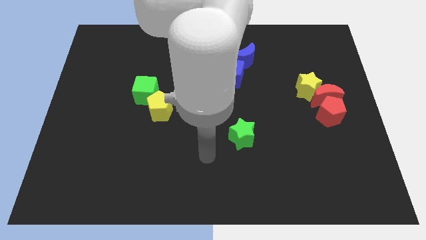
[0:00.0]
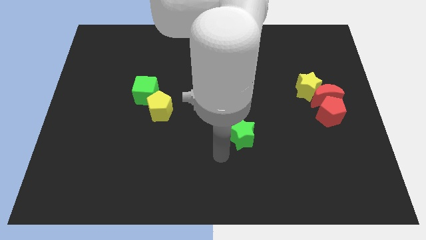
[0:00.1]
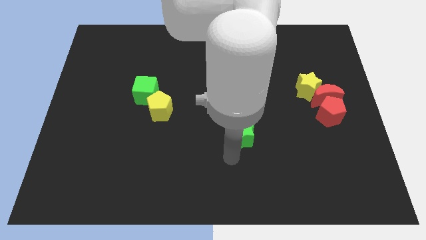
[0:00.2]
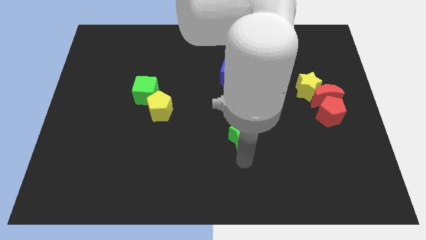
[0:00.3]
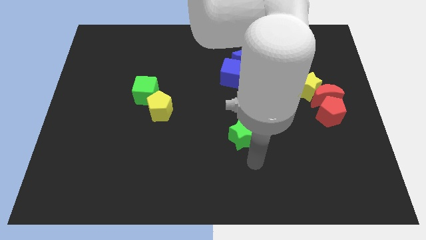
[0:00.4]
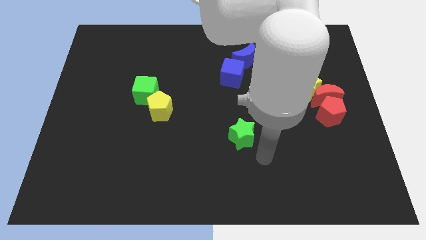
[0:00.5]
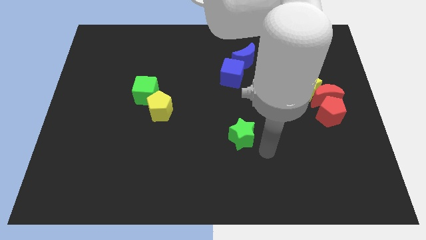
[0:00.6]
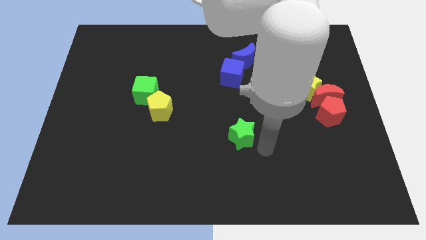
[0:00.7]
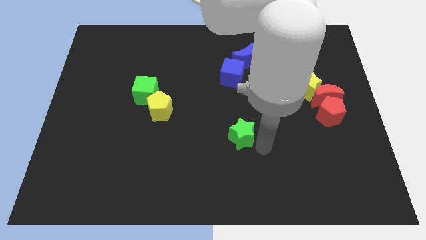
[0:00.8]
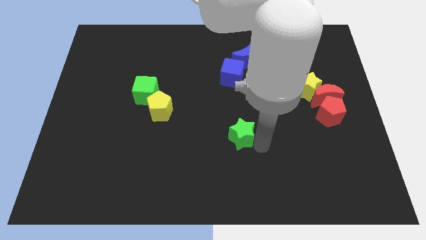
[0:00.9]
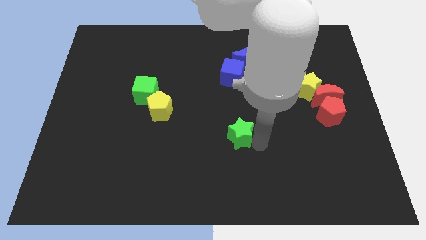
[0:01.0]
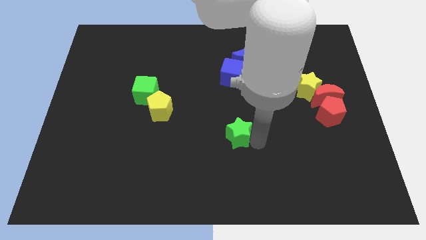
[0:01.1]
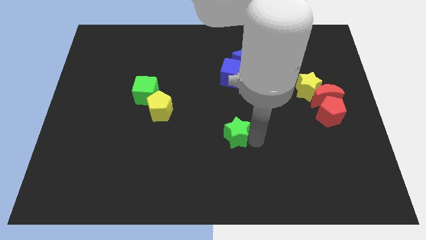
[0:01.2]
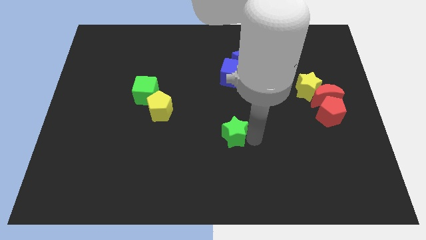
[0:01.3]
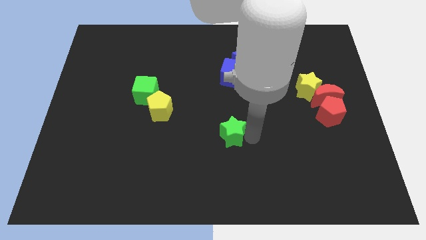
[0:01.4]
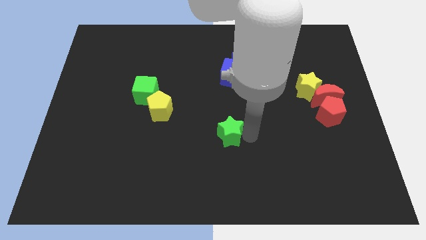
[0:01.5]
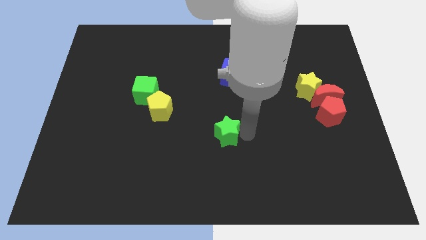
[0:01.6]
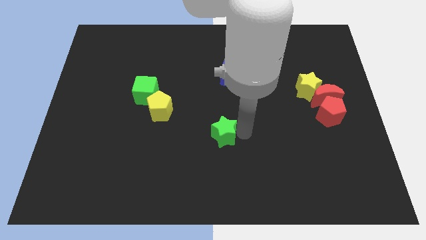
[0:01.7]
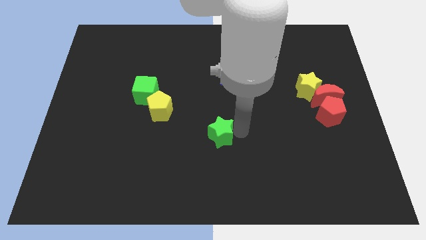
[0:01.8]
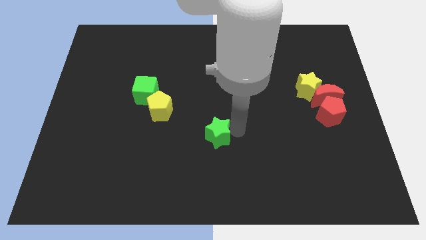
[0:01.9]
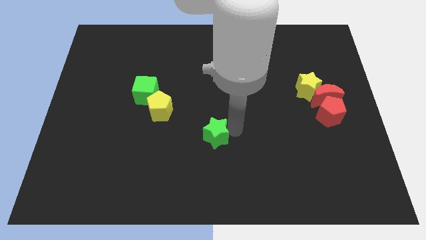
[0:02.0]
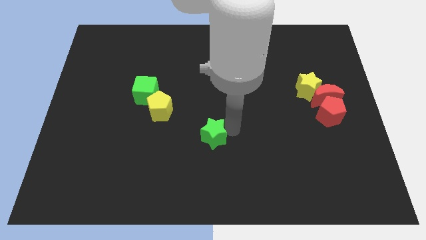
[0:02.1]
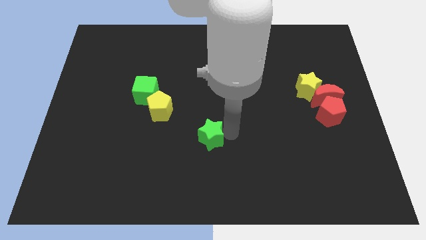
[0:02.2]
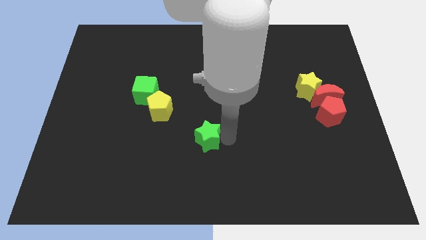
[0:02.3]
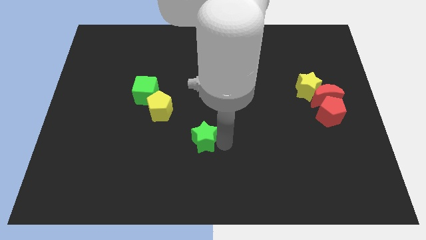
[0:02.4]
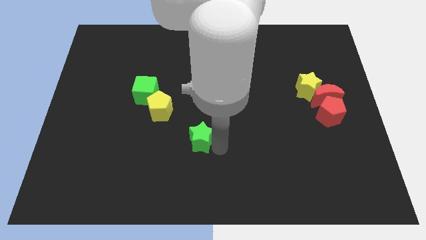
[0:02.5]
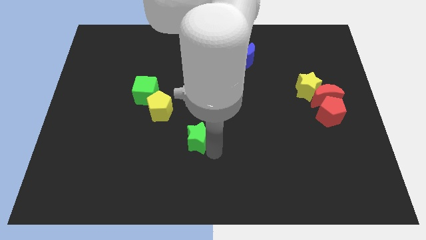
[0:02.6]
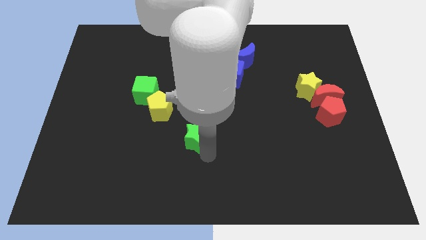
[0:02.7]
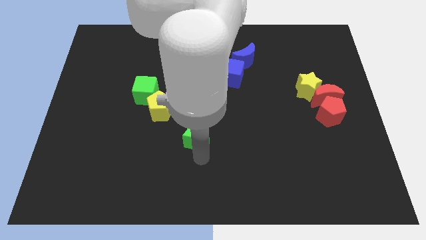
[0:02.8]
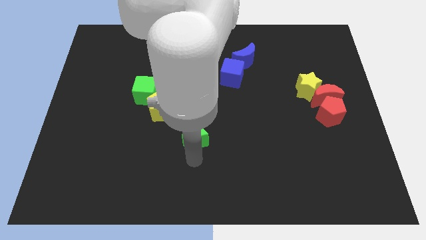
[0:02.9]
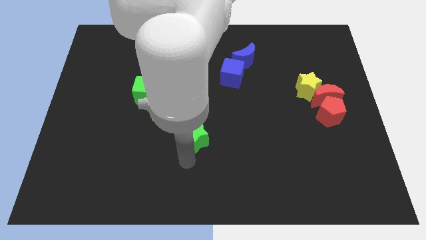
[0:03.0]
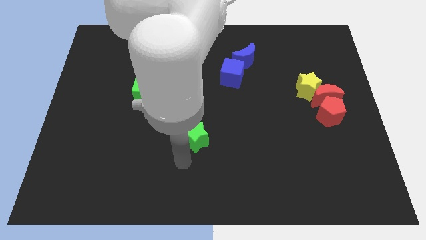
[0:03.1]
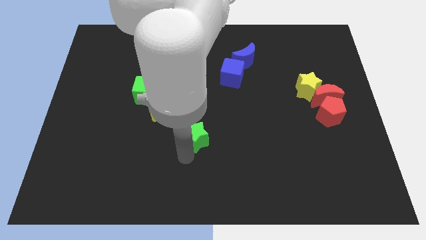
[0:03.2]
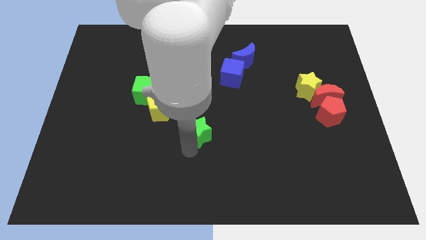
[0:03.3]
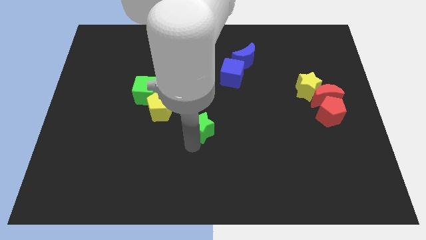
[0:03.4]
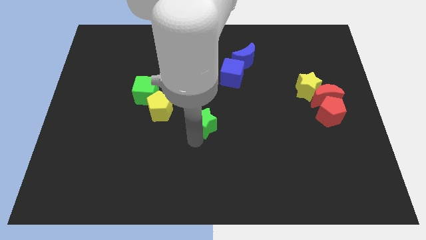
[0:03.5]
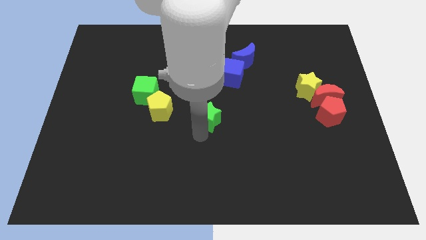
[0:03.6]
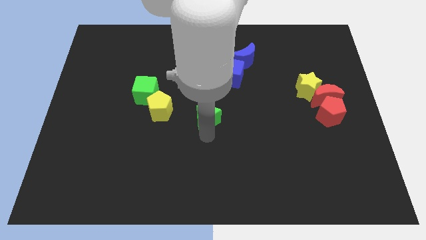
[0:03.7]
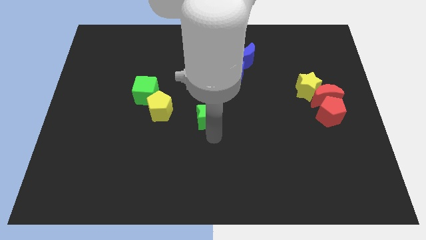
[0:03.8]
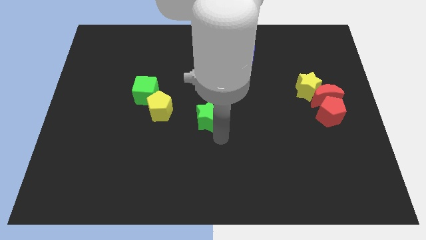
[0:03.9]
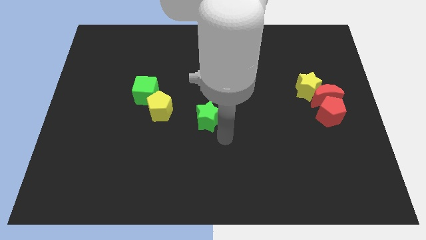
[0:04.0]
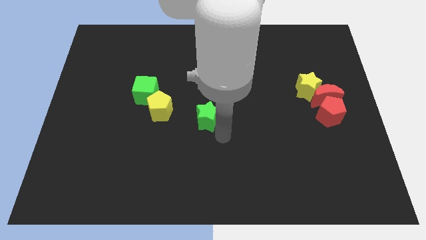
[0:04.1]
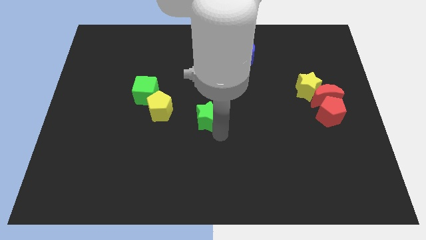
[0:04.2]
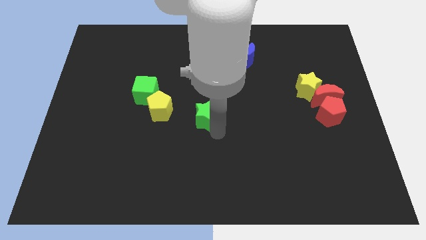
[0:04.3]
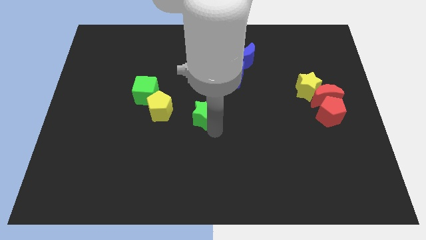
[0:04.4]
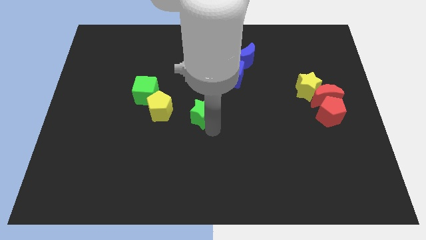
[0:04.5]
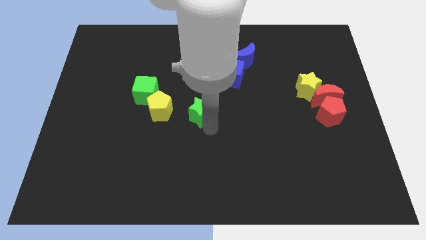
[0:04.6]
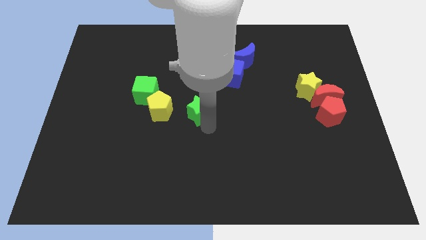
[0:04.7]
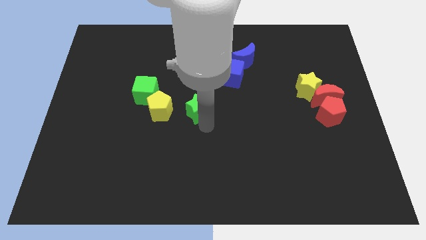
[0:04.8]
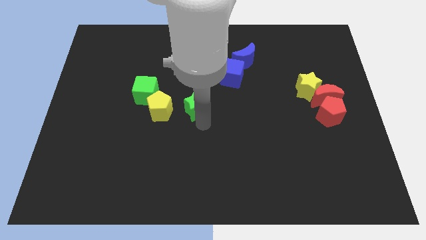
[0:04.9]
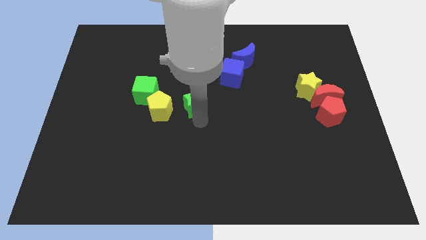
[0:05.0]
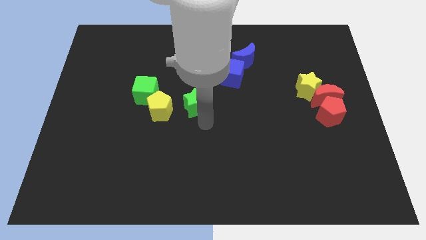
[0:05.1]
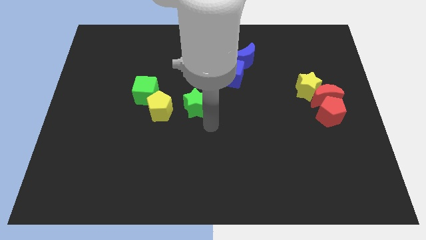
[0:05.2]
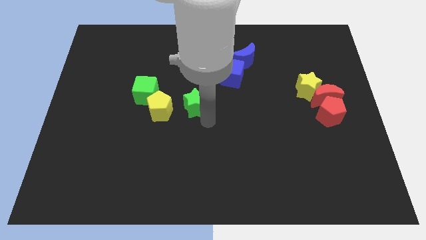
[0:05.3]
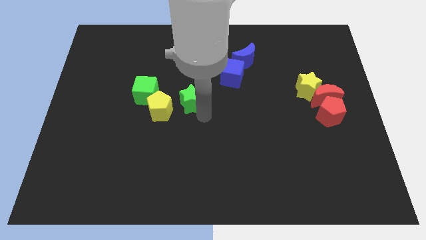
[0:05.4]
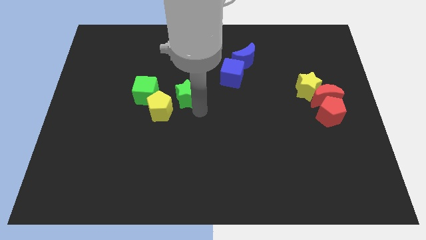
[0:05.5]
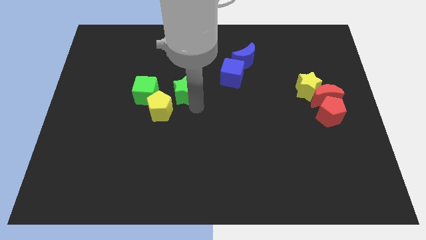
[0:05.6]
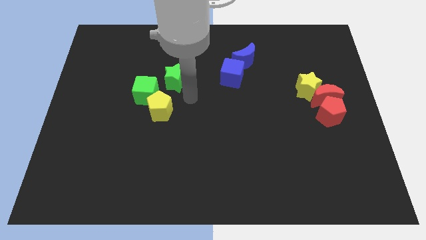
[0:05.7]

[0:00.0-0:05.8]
move the green star up and to the left diagonally

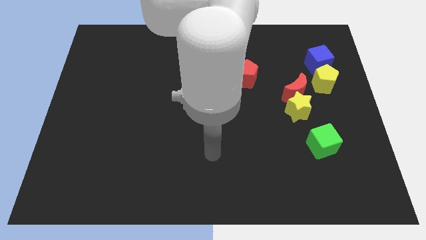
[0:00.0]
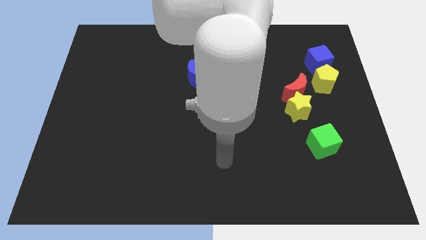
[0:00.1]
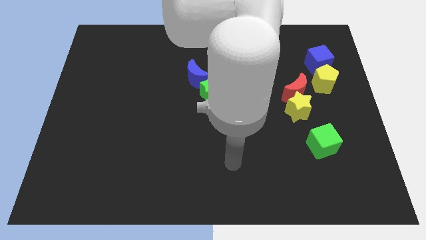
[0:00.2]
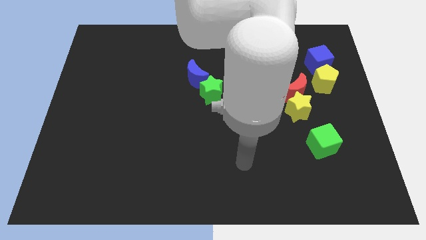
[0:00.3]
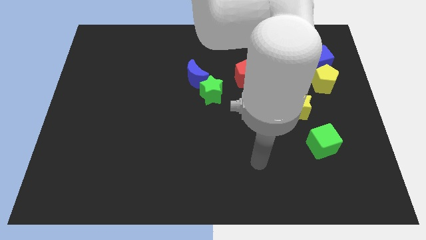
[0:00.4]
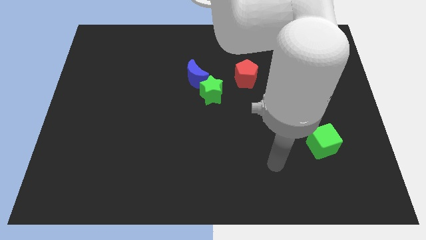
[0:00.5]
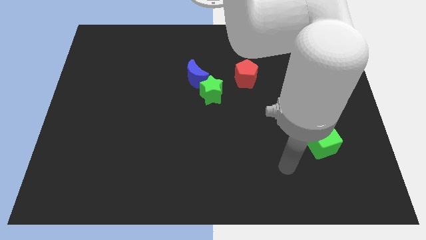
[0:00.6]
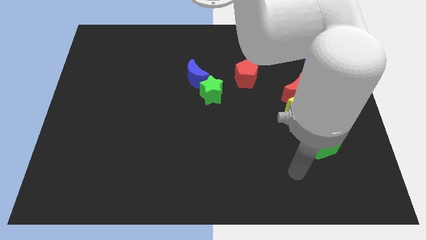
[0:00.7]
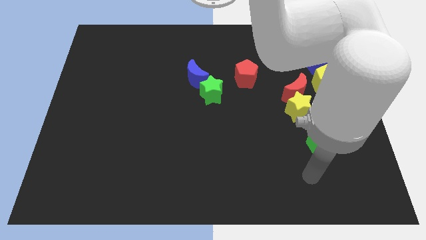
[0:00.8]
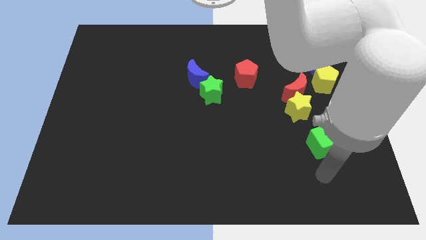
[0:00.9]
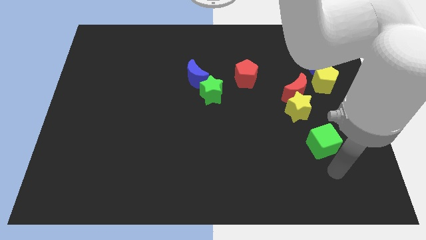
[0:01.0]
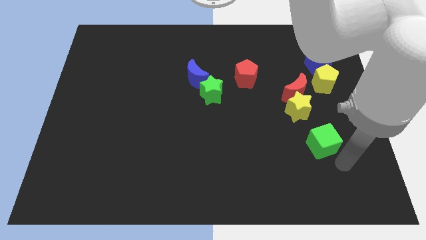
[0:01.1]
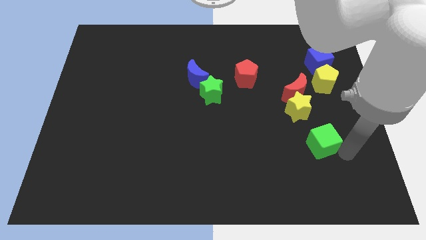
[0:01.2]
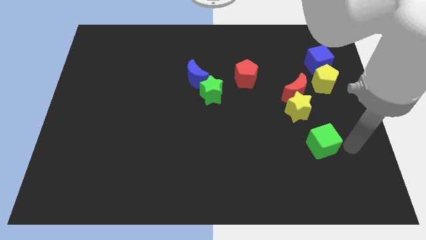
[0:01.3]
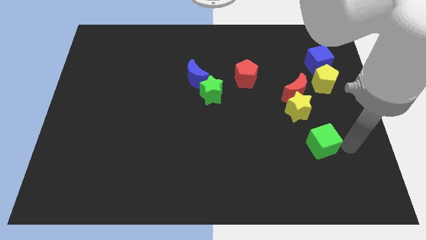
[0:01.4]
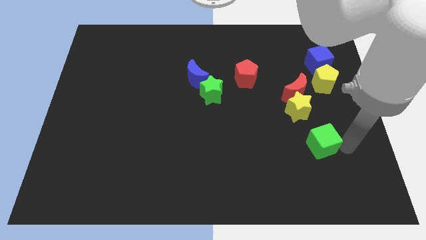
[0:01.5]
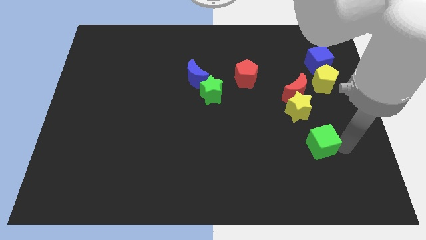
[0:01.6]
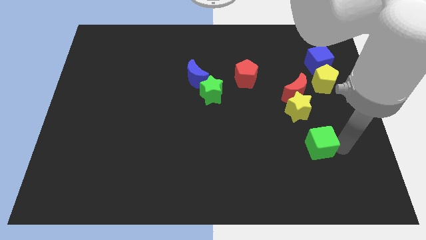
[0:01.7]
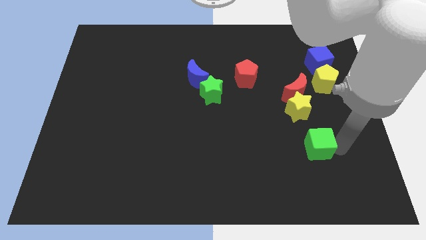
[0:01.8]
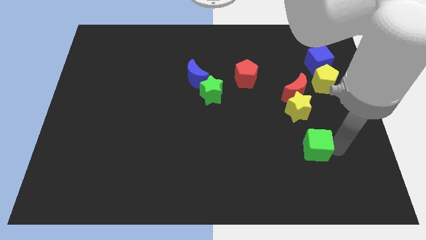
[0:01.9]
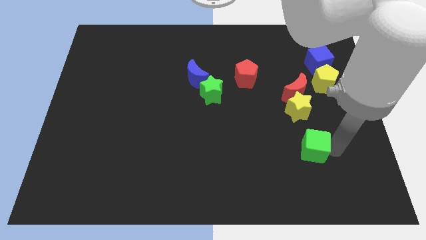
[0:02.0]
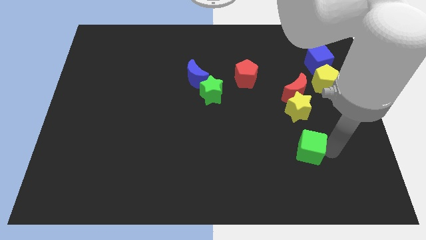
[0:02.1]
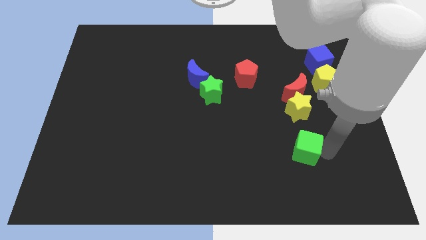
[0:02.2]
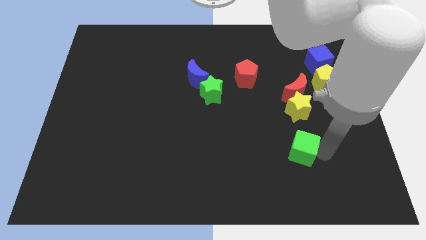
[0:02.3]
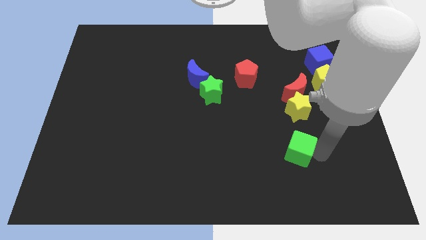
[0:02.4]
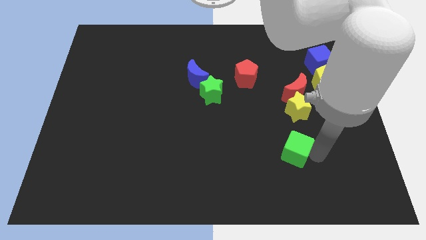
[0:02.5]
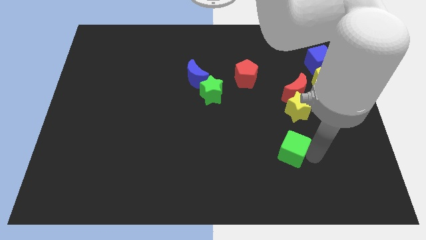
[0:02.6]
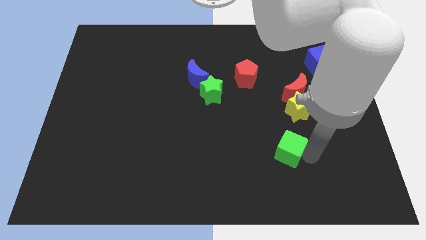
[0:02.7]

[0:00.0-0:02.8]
slightly move the green cube left
